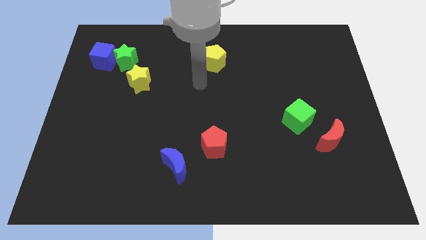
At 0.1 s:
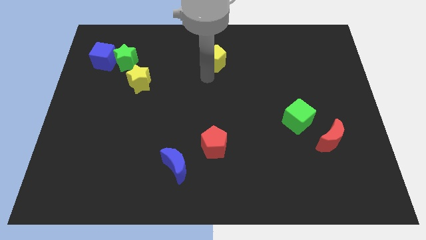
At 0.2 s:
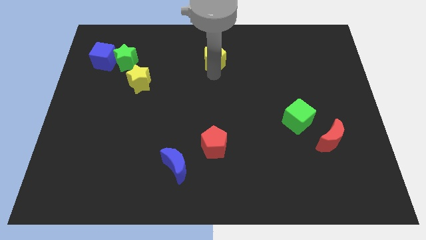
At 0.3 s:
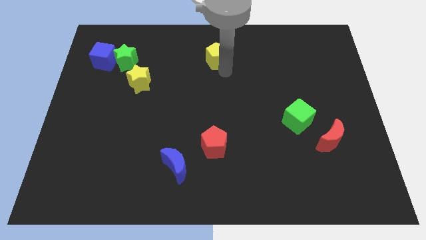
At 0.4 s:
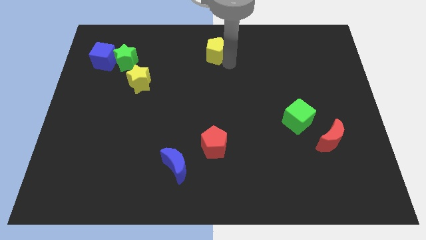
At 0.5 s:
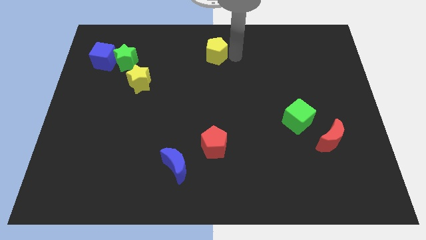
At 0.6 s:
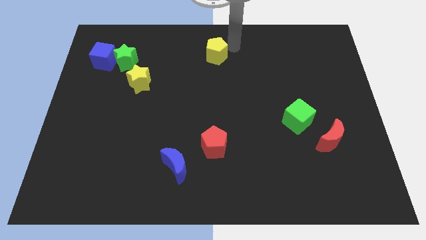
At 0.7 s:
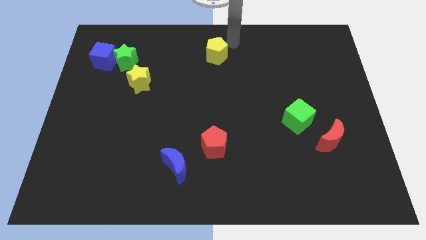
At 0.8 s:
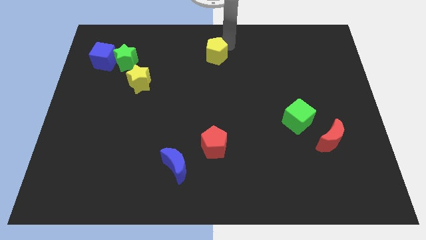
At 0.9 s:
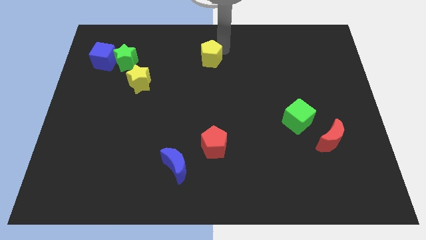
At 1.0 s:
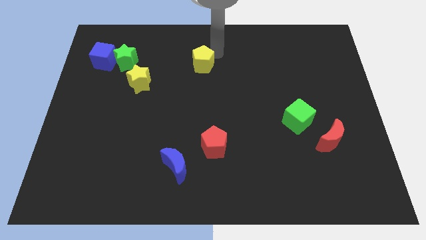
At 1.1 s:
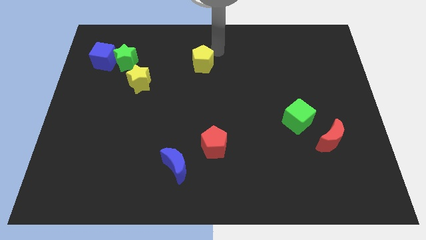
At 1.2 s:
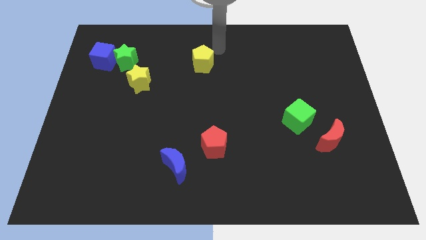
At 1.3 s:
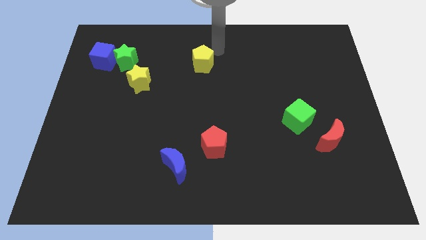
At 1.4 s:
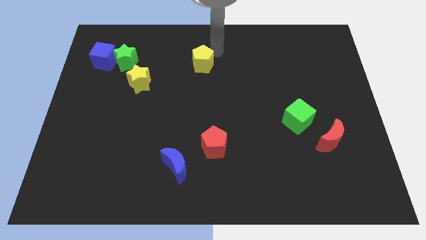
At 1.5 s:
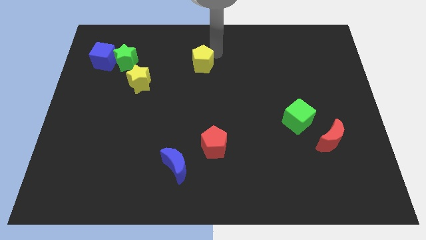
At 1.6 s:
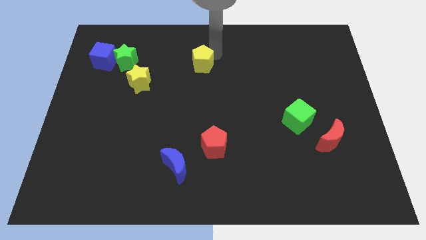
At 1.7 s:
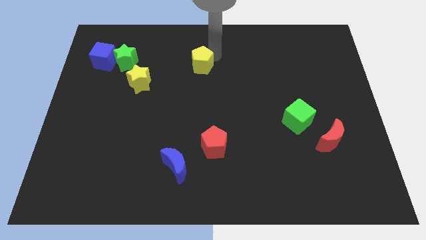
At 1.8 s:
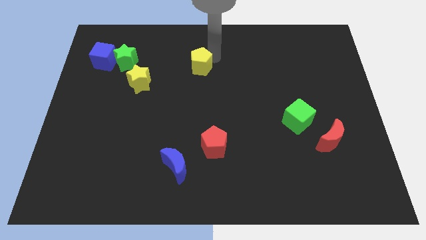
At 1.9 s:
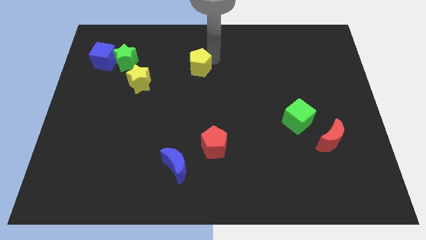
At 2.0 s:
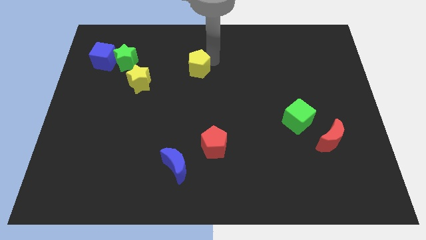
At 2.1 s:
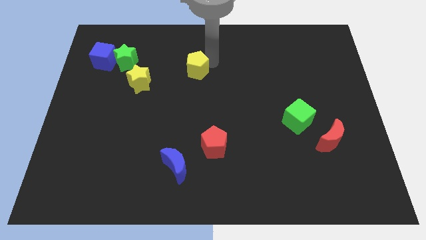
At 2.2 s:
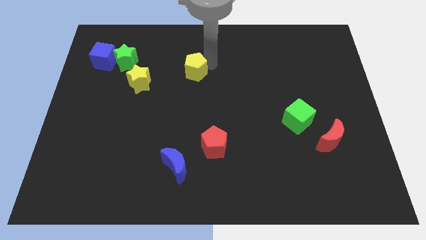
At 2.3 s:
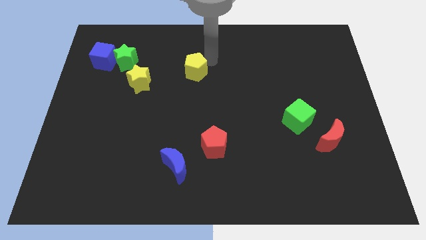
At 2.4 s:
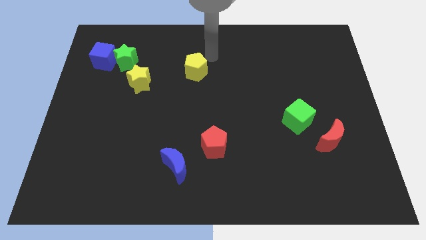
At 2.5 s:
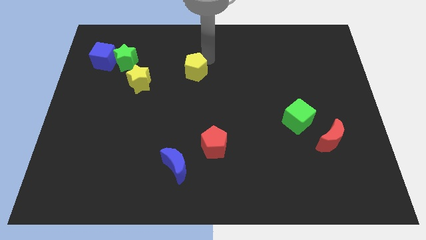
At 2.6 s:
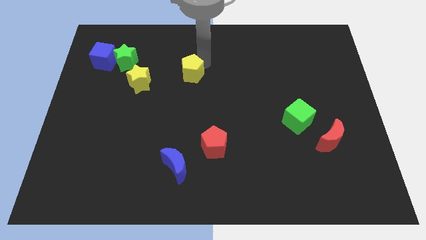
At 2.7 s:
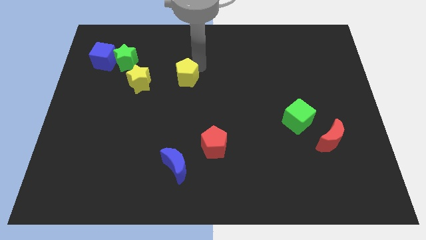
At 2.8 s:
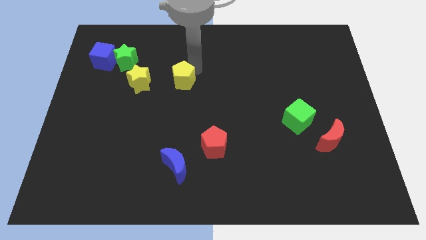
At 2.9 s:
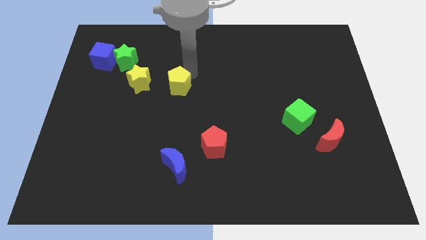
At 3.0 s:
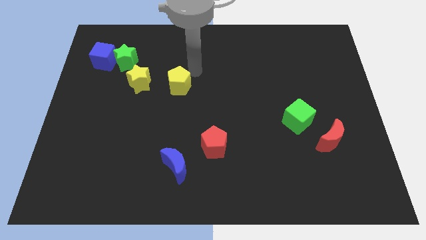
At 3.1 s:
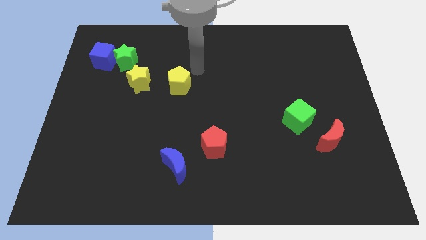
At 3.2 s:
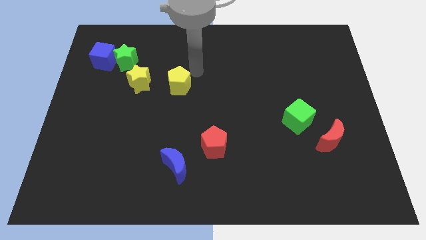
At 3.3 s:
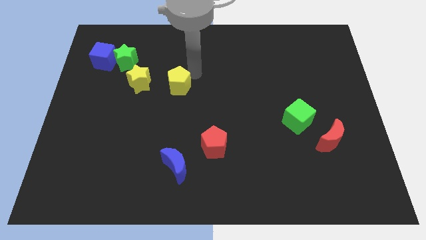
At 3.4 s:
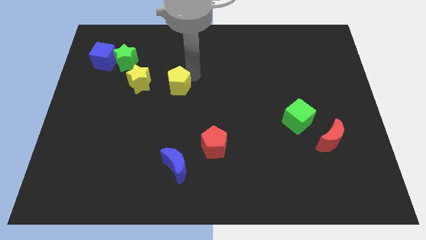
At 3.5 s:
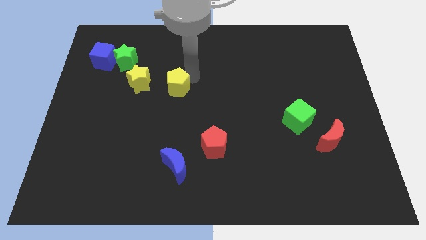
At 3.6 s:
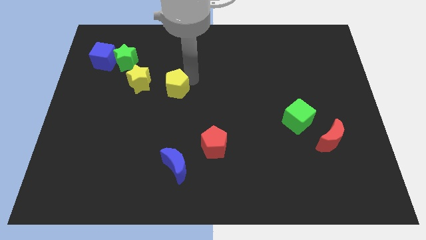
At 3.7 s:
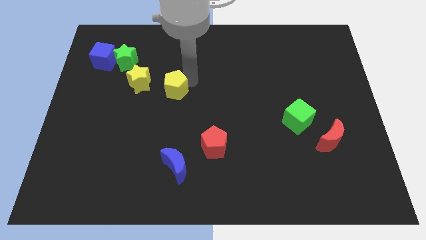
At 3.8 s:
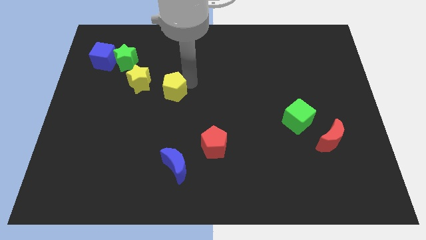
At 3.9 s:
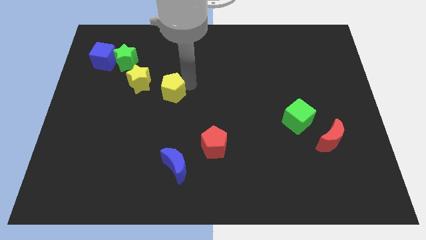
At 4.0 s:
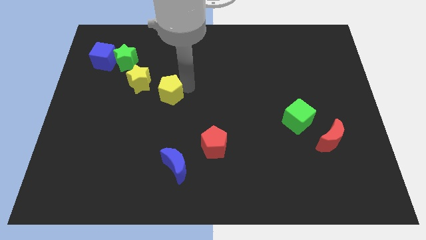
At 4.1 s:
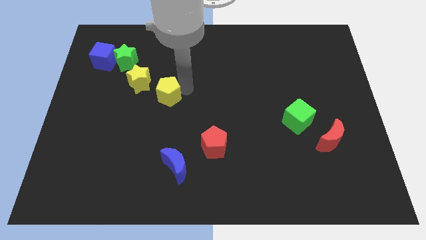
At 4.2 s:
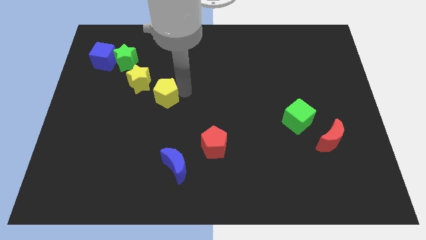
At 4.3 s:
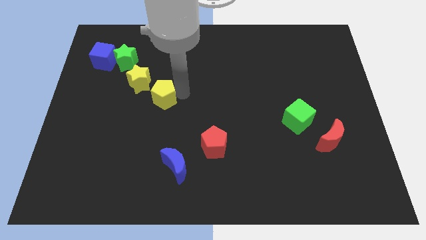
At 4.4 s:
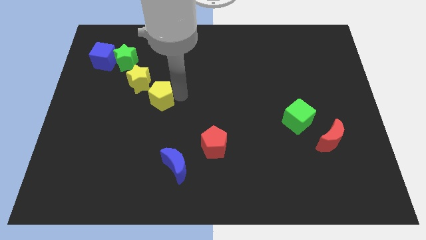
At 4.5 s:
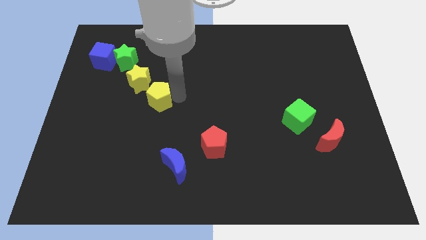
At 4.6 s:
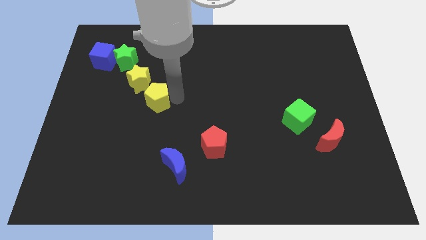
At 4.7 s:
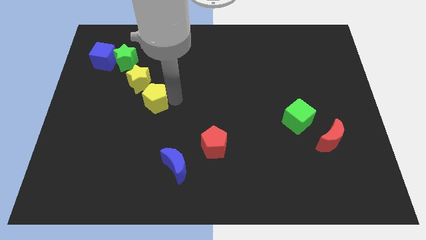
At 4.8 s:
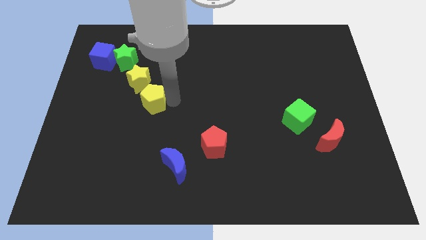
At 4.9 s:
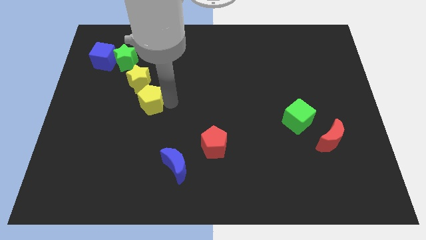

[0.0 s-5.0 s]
move the yellow pentagon diagonally down and left

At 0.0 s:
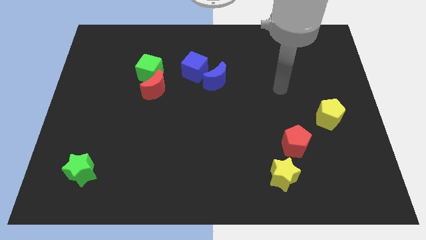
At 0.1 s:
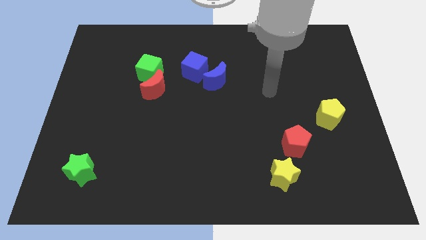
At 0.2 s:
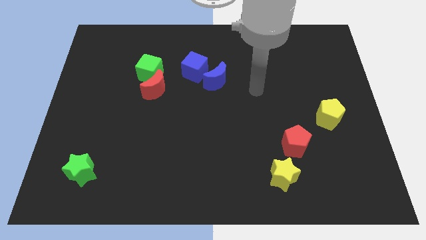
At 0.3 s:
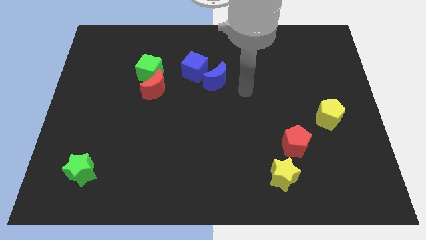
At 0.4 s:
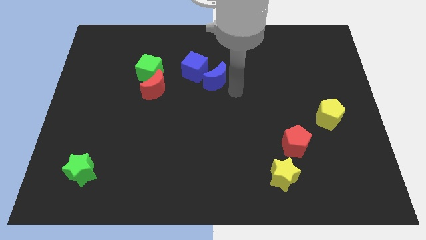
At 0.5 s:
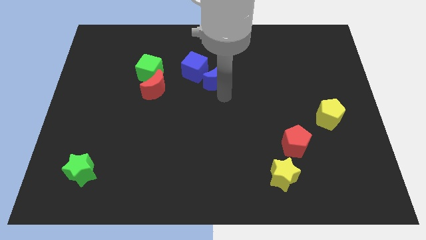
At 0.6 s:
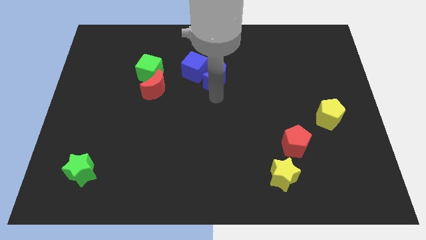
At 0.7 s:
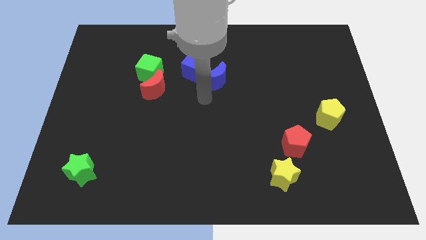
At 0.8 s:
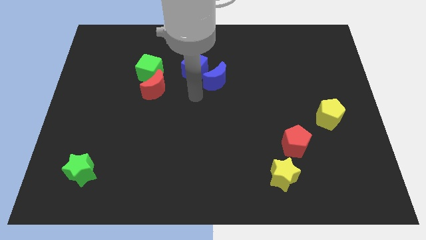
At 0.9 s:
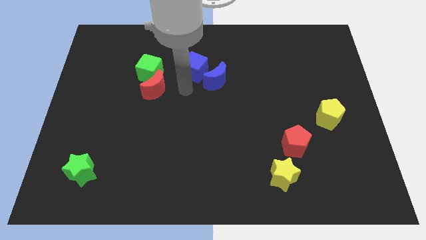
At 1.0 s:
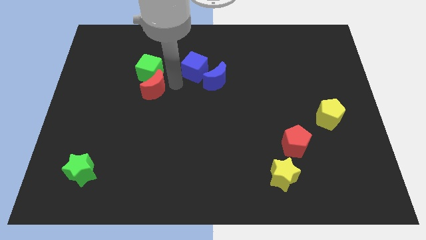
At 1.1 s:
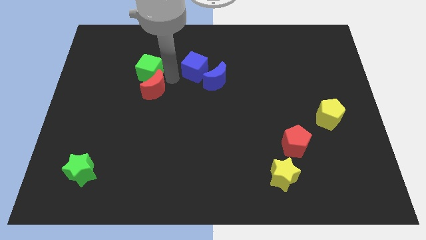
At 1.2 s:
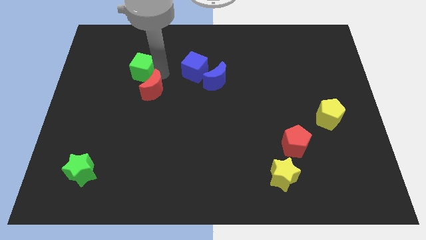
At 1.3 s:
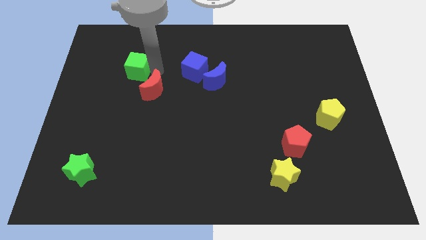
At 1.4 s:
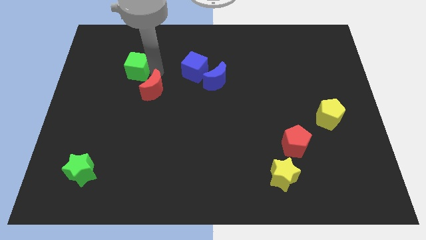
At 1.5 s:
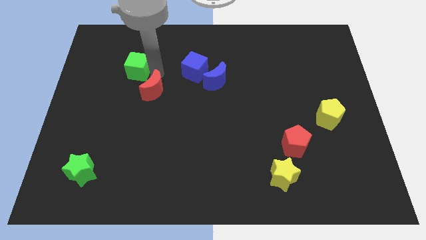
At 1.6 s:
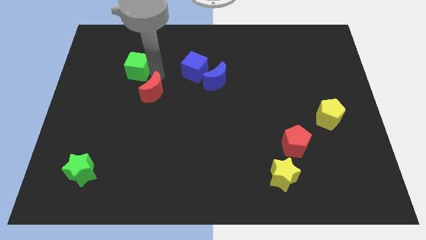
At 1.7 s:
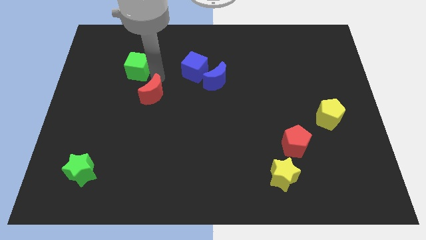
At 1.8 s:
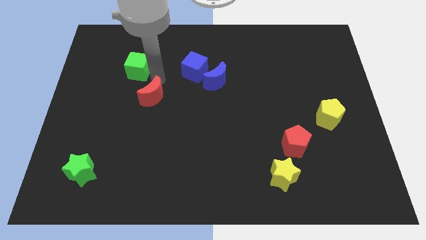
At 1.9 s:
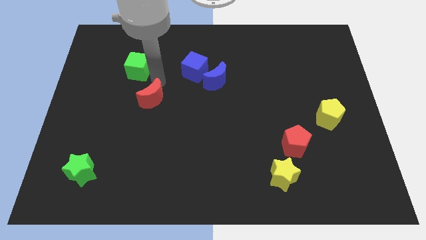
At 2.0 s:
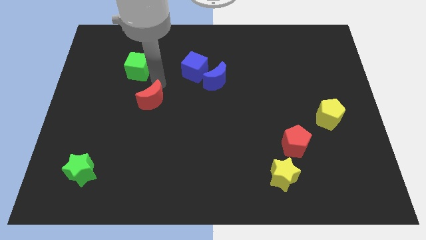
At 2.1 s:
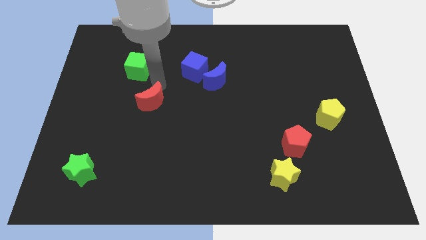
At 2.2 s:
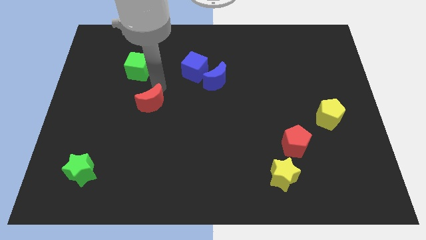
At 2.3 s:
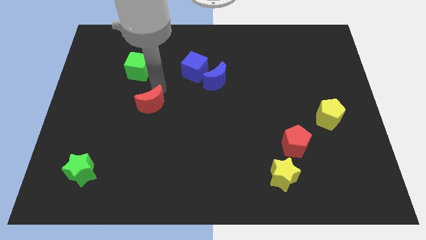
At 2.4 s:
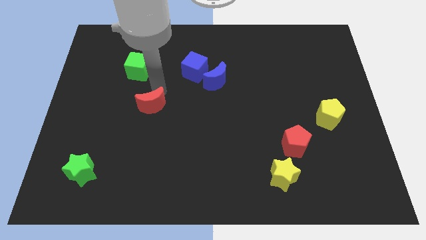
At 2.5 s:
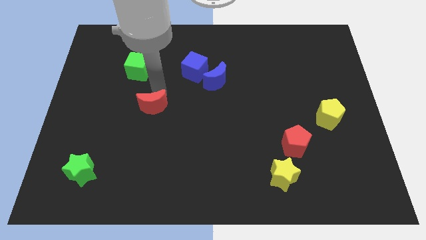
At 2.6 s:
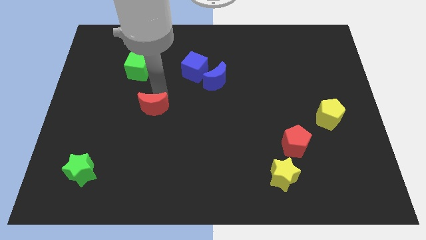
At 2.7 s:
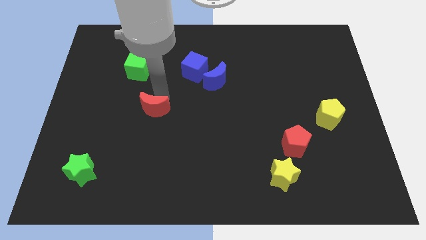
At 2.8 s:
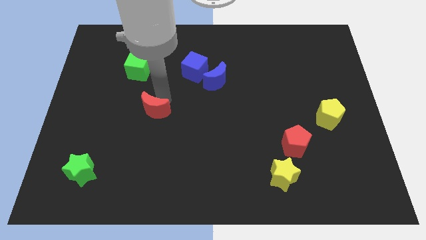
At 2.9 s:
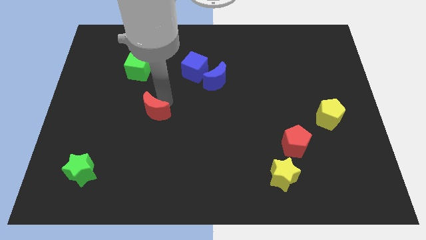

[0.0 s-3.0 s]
push the red moon downwards a little bit
